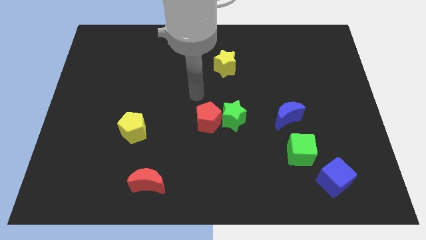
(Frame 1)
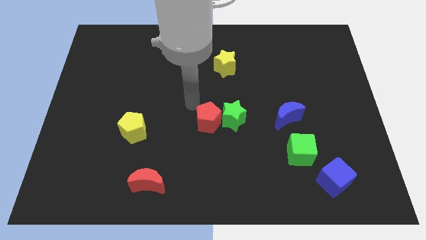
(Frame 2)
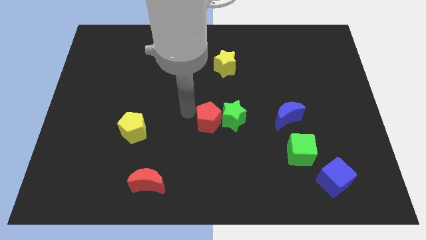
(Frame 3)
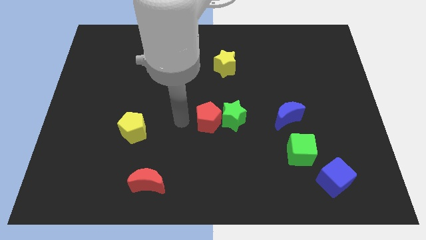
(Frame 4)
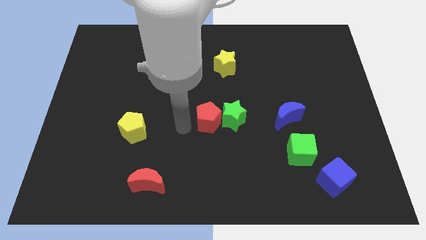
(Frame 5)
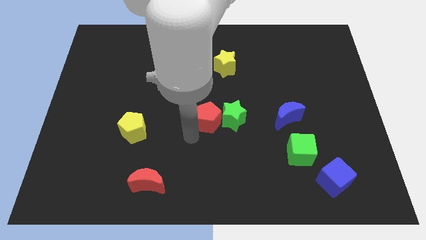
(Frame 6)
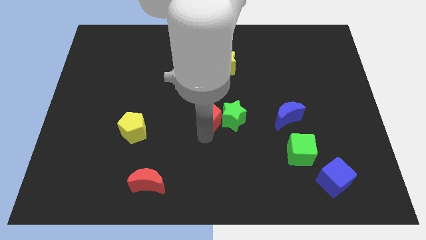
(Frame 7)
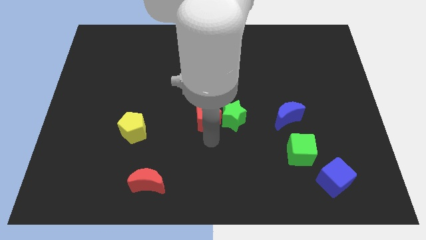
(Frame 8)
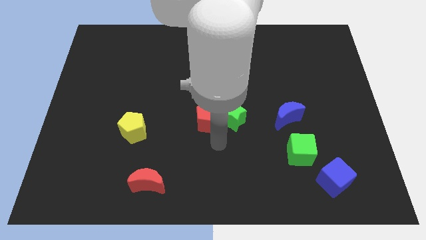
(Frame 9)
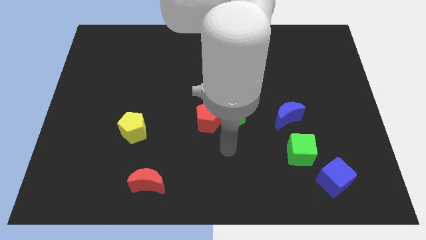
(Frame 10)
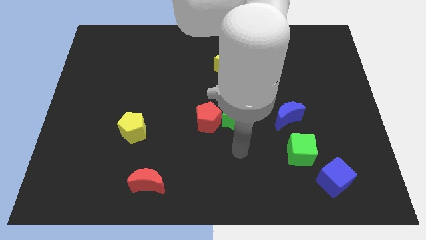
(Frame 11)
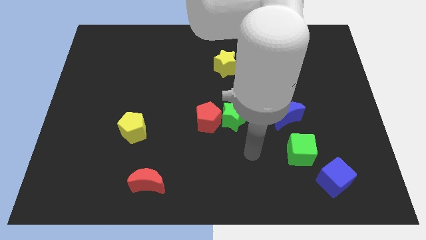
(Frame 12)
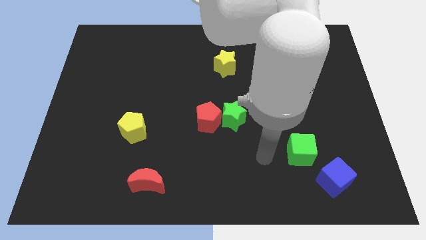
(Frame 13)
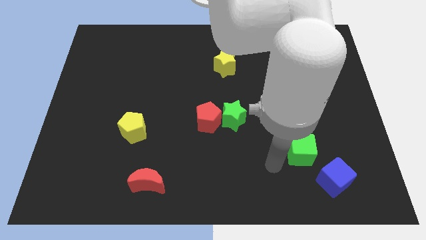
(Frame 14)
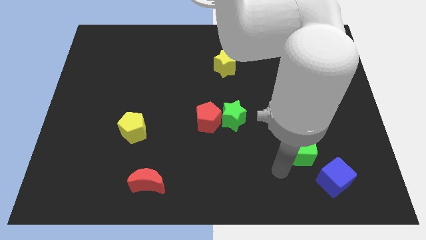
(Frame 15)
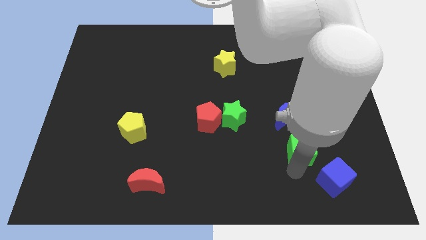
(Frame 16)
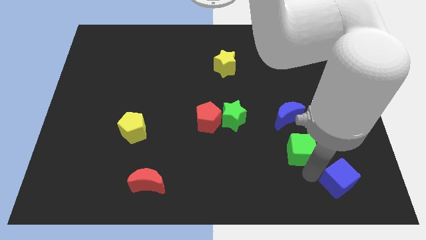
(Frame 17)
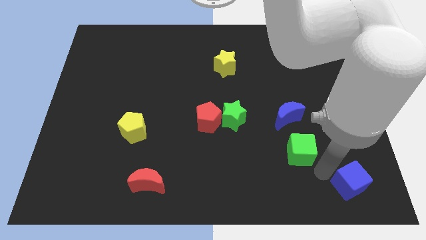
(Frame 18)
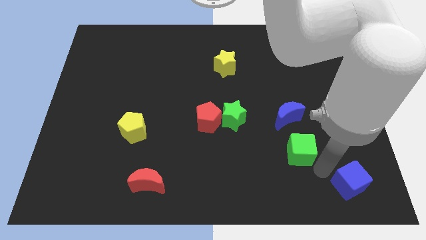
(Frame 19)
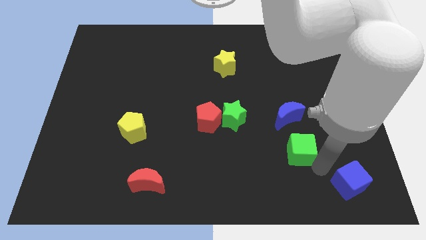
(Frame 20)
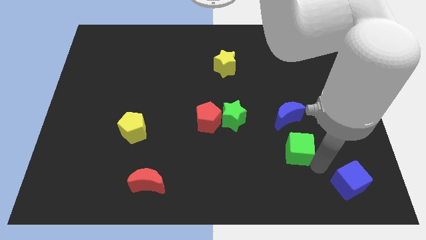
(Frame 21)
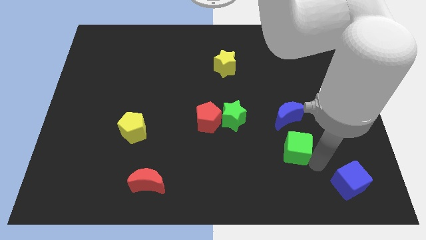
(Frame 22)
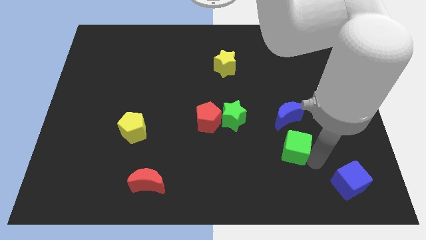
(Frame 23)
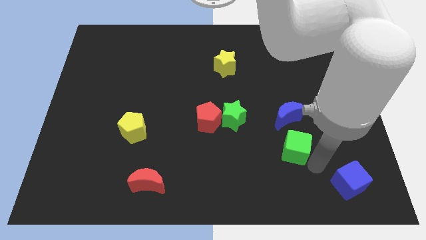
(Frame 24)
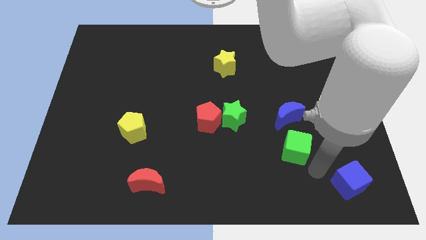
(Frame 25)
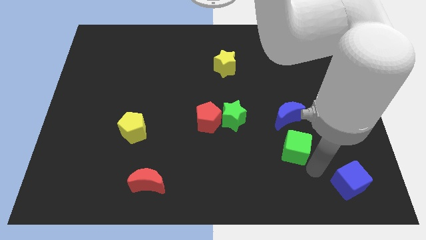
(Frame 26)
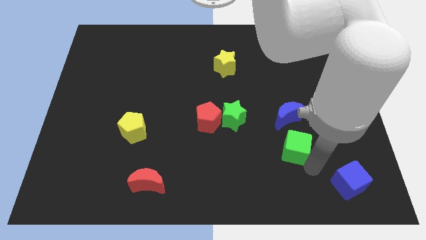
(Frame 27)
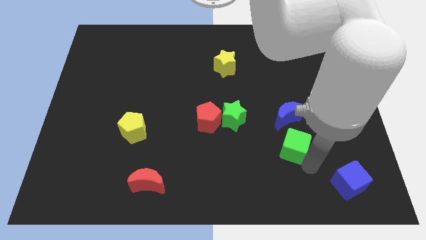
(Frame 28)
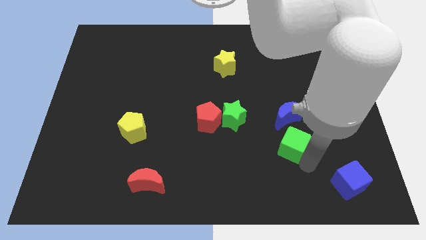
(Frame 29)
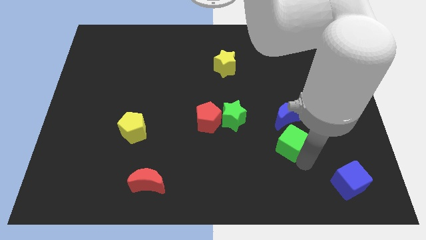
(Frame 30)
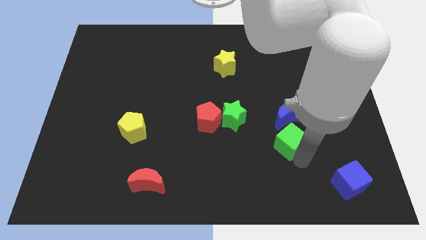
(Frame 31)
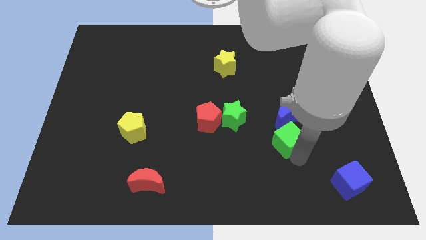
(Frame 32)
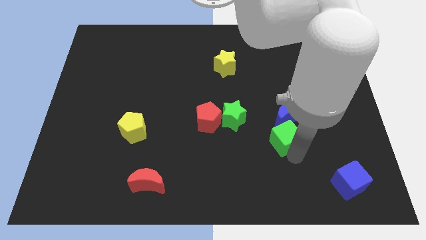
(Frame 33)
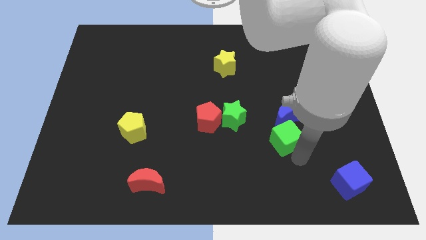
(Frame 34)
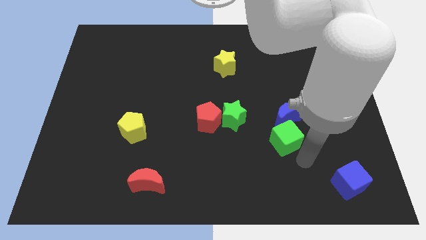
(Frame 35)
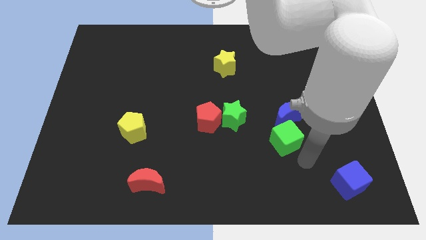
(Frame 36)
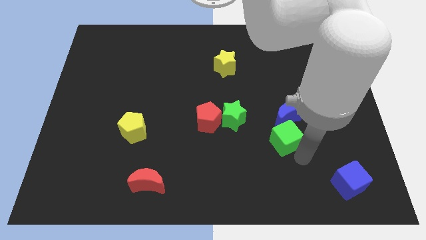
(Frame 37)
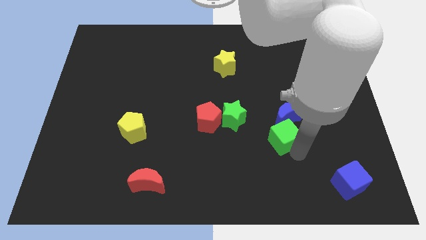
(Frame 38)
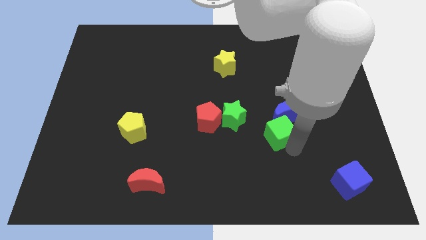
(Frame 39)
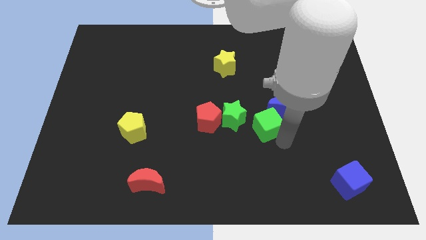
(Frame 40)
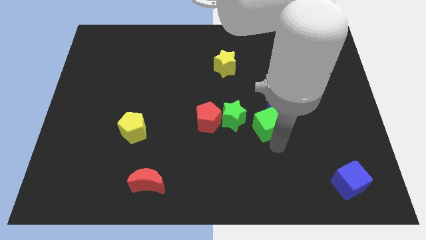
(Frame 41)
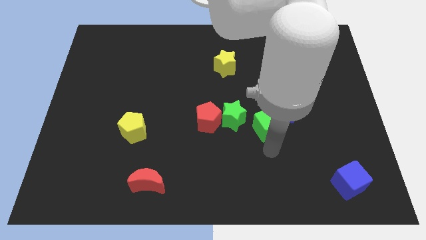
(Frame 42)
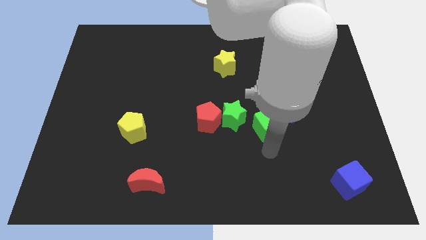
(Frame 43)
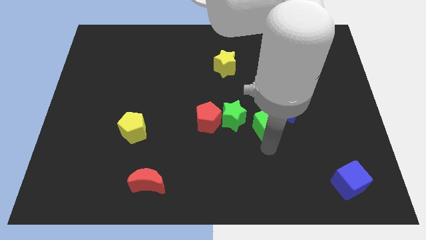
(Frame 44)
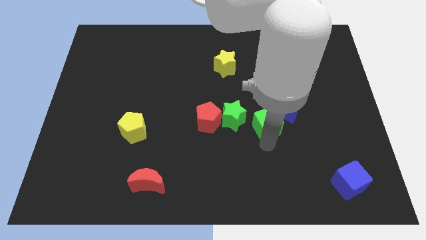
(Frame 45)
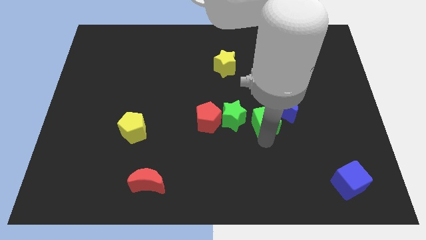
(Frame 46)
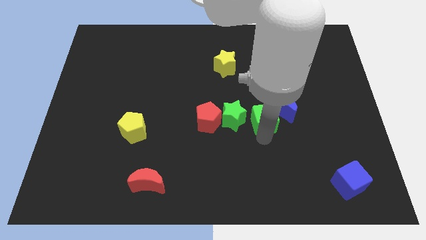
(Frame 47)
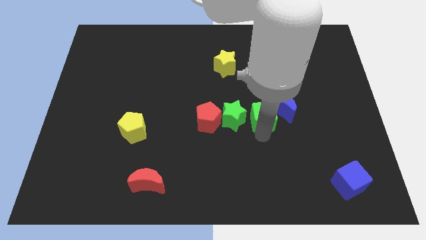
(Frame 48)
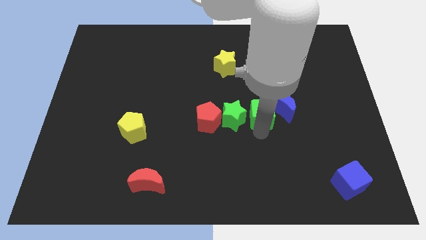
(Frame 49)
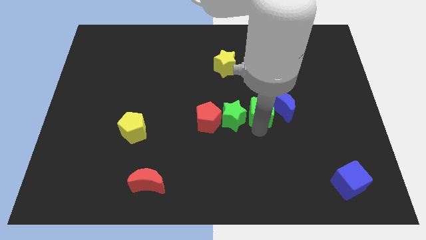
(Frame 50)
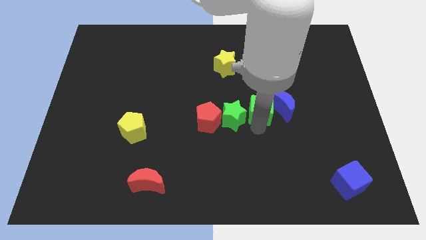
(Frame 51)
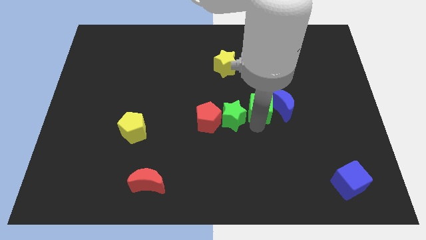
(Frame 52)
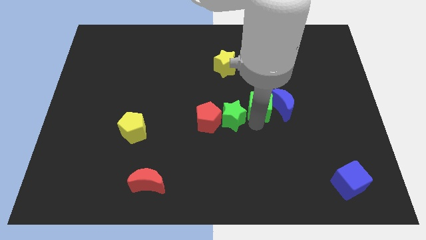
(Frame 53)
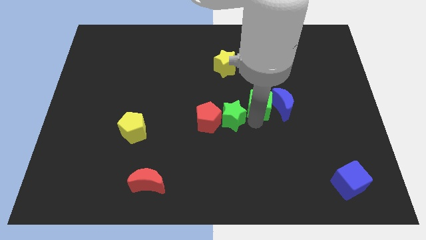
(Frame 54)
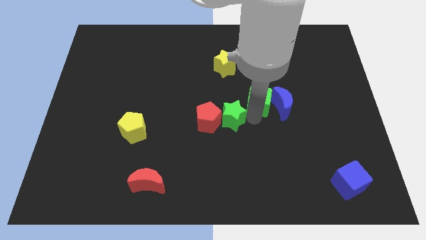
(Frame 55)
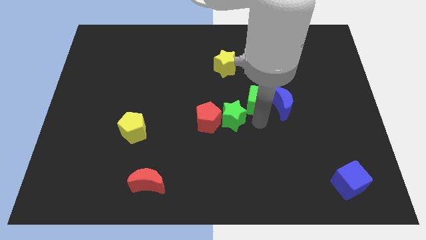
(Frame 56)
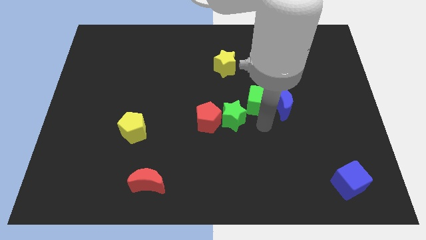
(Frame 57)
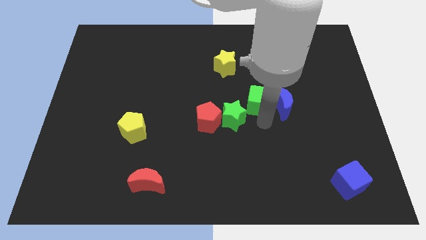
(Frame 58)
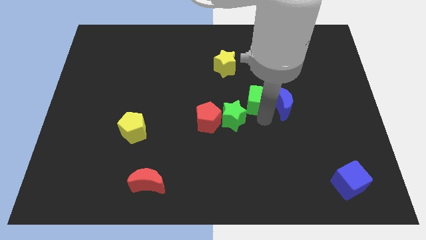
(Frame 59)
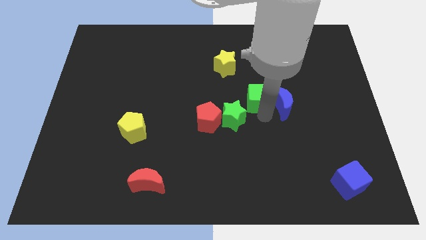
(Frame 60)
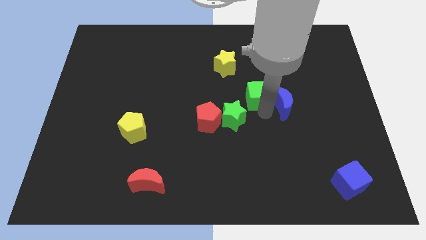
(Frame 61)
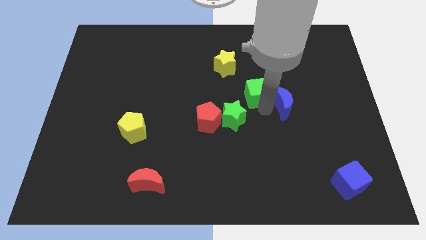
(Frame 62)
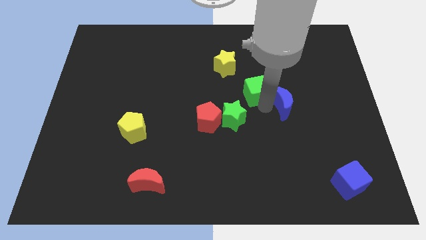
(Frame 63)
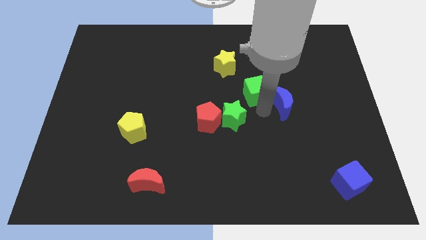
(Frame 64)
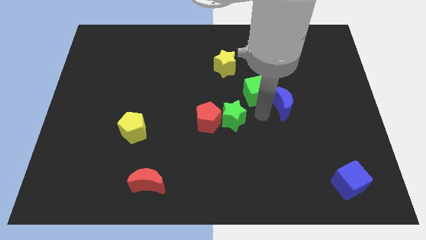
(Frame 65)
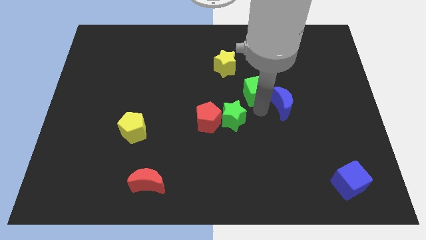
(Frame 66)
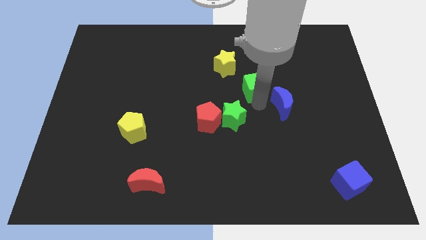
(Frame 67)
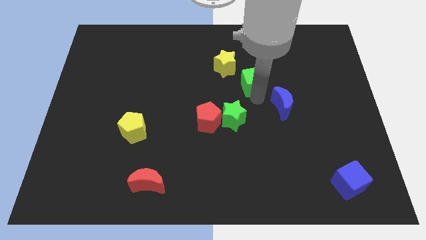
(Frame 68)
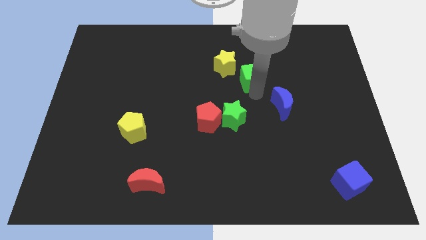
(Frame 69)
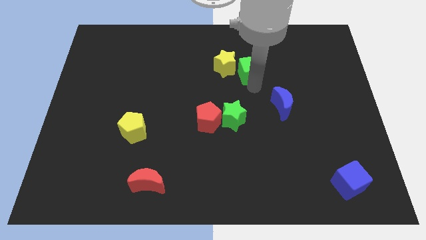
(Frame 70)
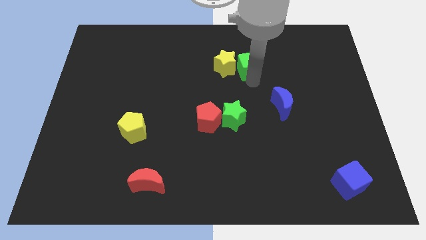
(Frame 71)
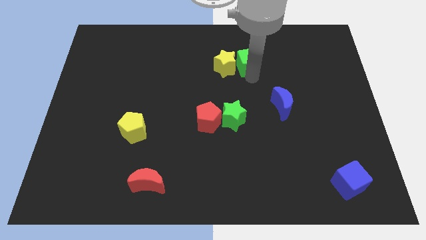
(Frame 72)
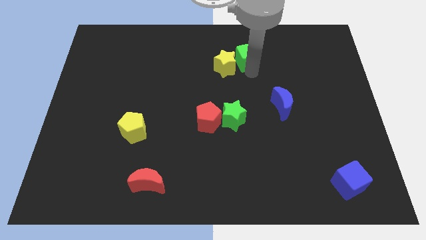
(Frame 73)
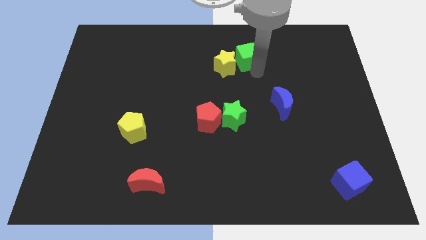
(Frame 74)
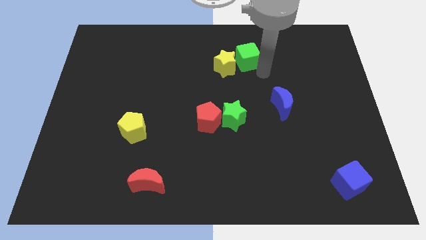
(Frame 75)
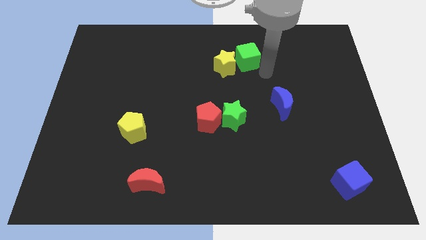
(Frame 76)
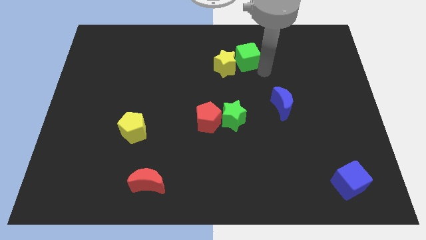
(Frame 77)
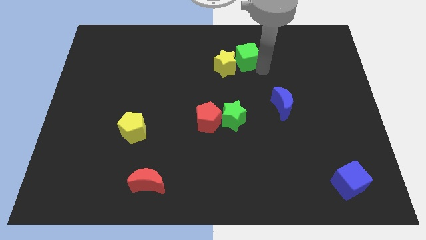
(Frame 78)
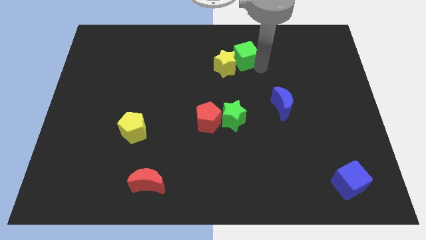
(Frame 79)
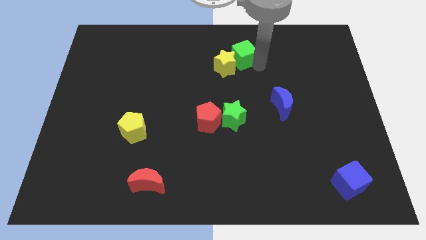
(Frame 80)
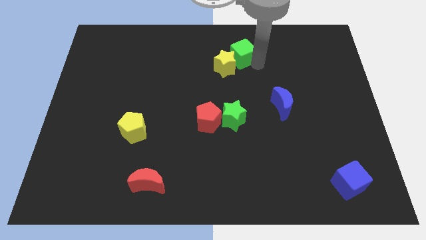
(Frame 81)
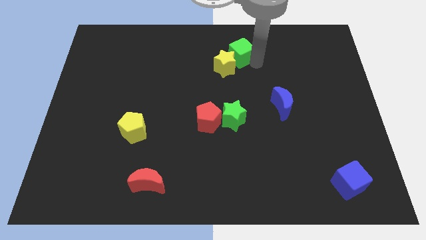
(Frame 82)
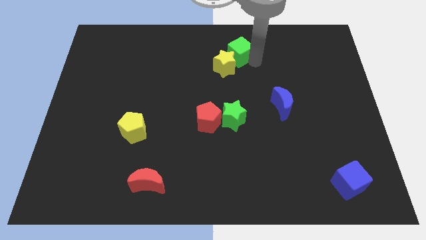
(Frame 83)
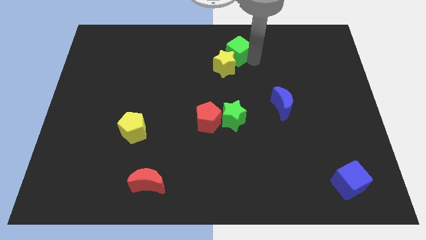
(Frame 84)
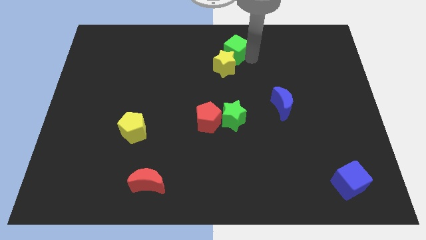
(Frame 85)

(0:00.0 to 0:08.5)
put the green cube to the top side
